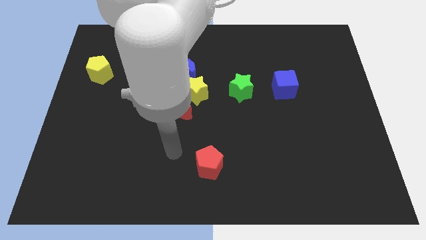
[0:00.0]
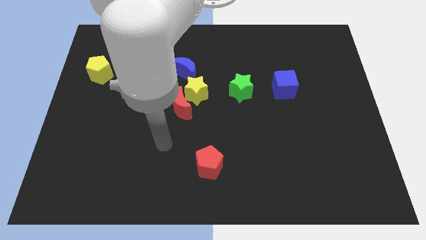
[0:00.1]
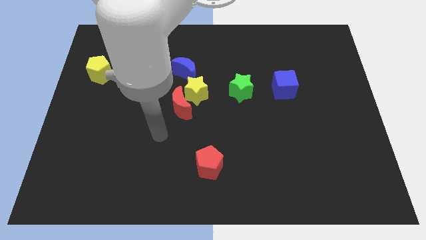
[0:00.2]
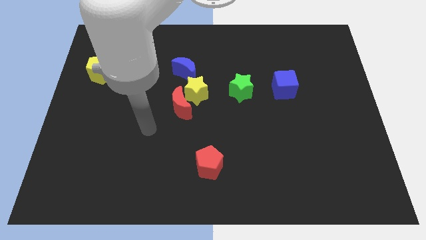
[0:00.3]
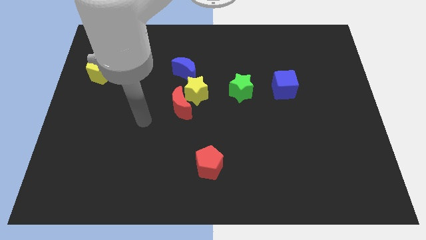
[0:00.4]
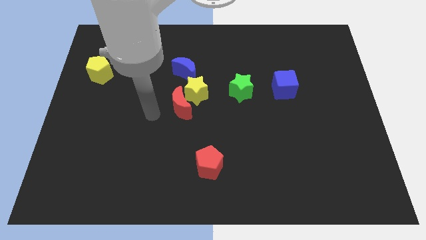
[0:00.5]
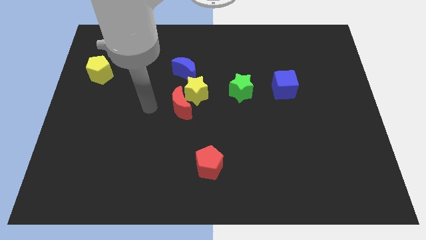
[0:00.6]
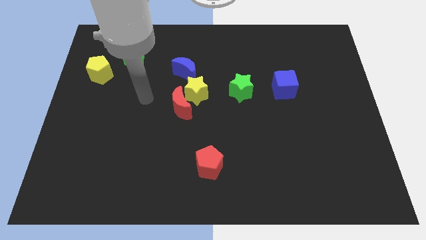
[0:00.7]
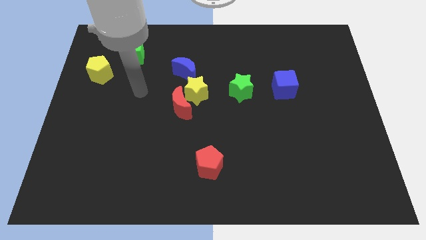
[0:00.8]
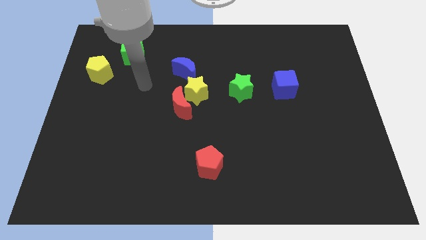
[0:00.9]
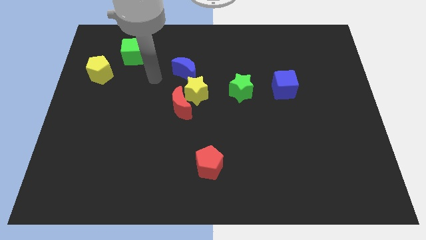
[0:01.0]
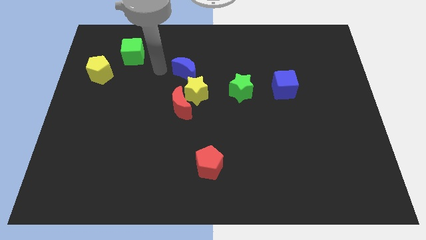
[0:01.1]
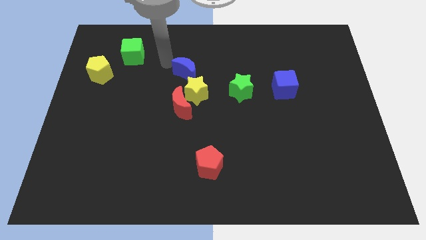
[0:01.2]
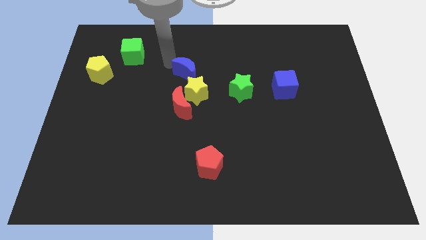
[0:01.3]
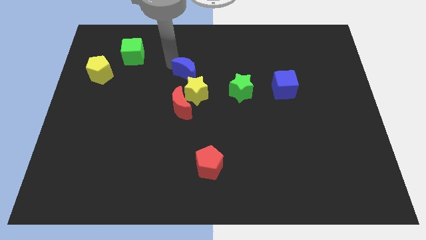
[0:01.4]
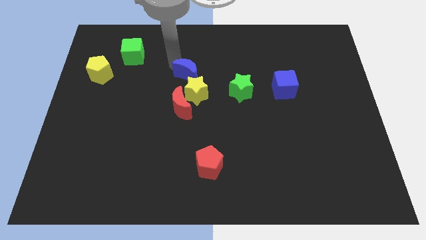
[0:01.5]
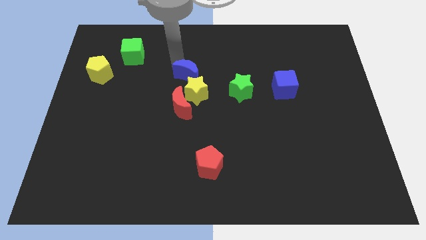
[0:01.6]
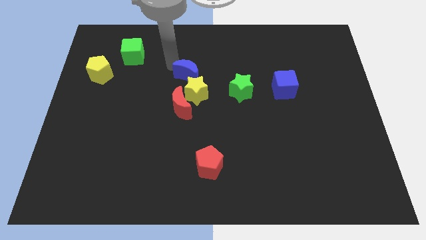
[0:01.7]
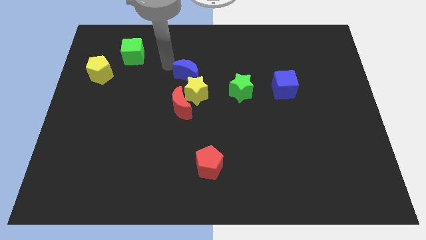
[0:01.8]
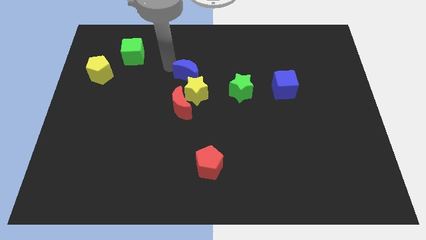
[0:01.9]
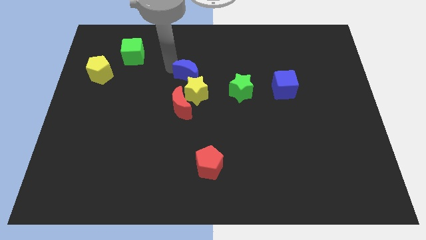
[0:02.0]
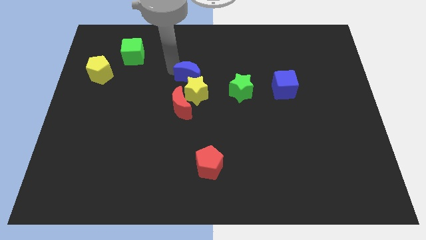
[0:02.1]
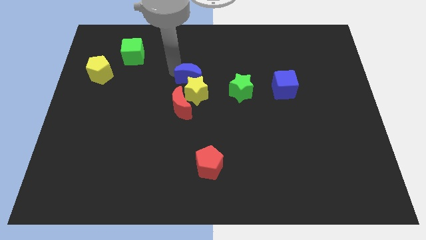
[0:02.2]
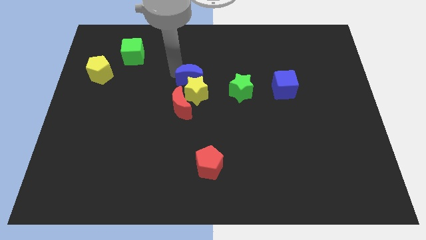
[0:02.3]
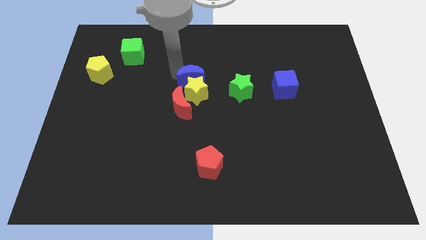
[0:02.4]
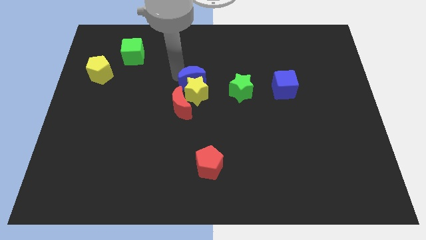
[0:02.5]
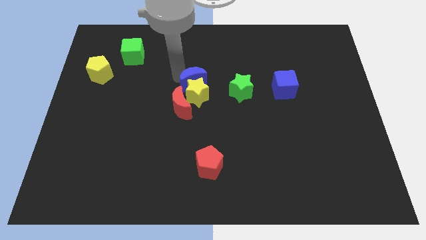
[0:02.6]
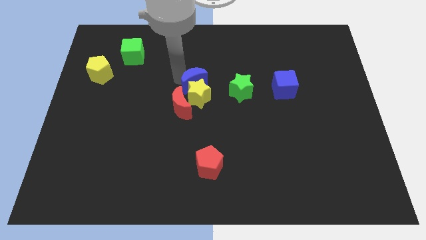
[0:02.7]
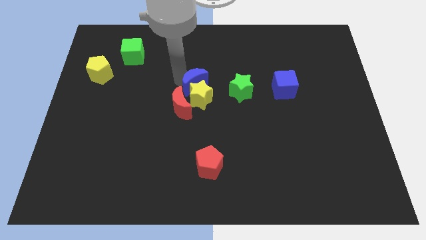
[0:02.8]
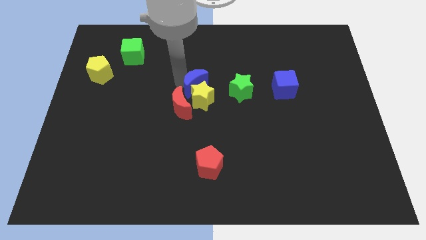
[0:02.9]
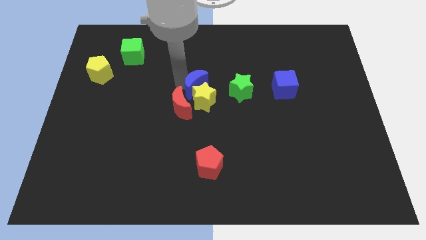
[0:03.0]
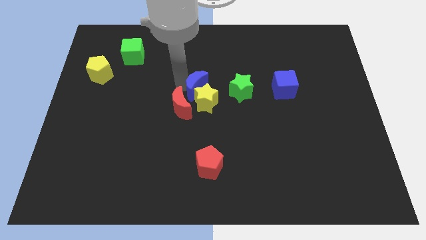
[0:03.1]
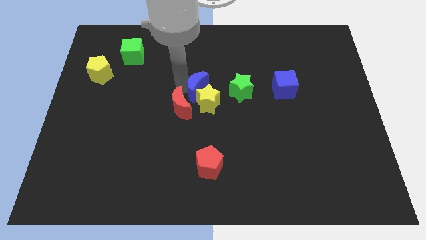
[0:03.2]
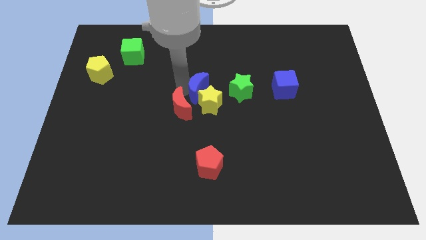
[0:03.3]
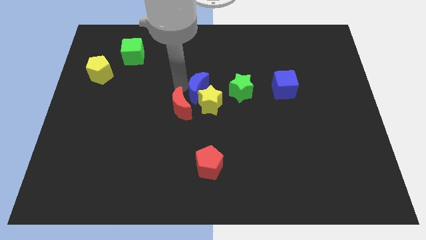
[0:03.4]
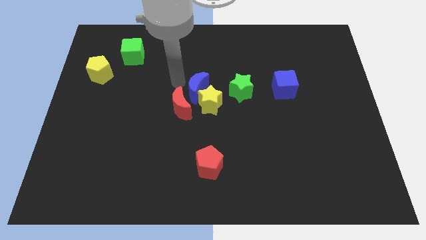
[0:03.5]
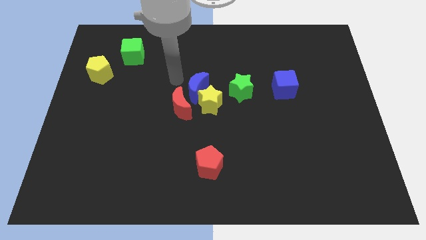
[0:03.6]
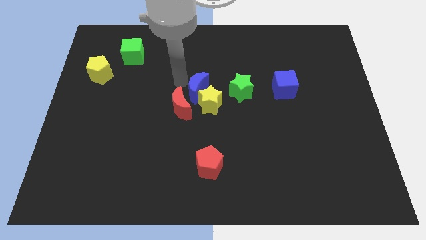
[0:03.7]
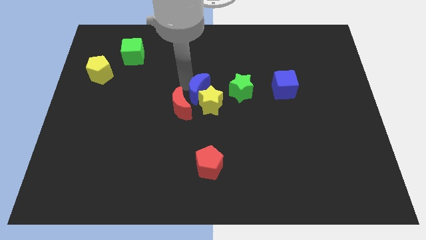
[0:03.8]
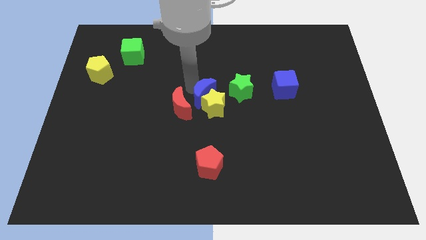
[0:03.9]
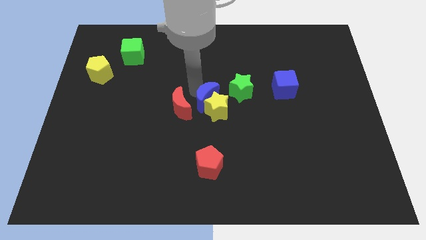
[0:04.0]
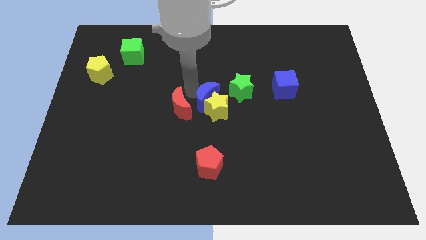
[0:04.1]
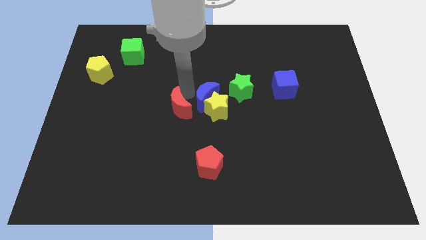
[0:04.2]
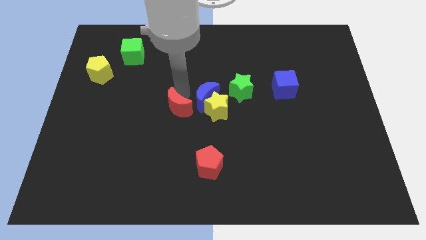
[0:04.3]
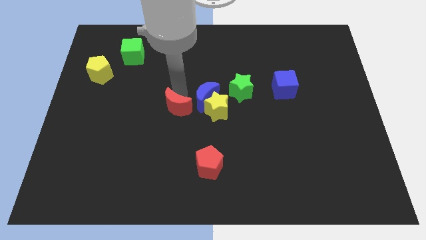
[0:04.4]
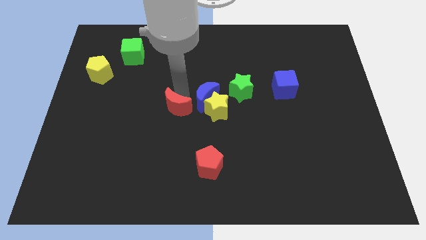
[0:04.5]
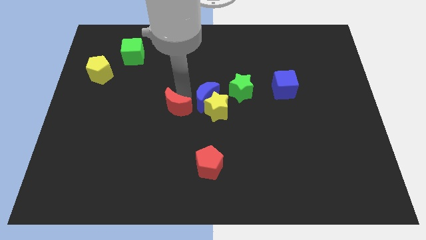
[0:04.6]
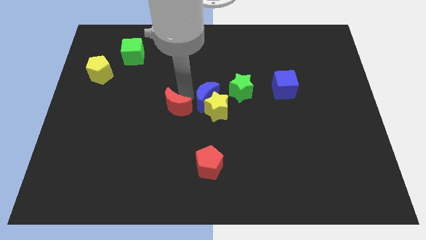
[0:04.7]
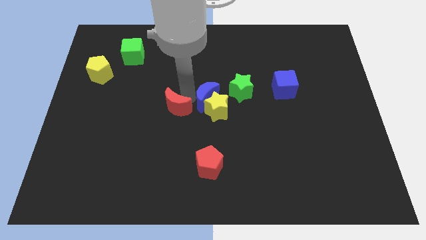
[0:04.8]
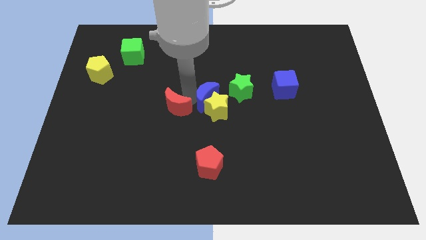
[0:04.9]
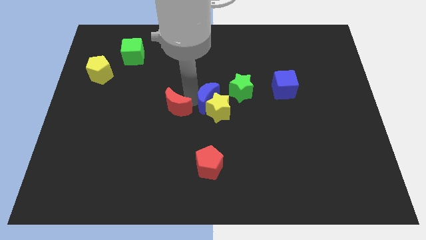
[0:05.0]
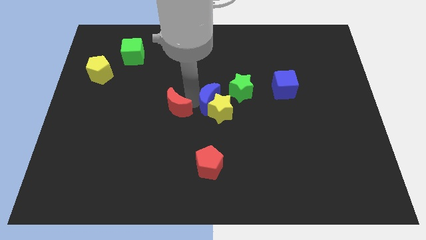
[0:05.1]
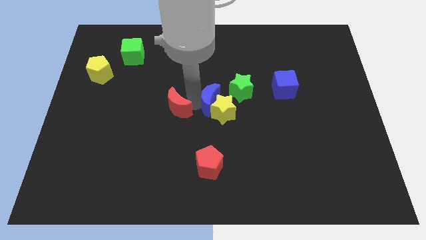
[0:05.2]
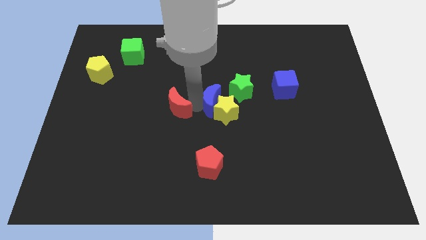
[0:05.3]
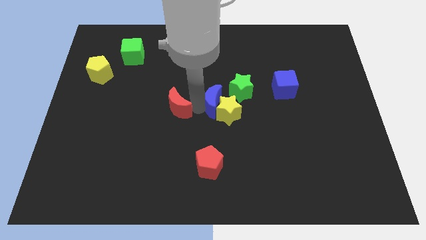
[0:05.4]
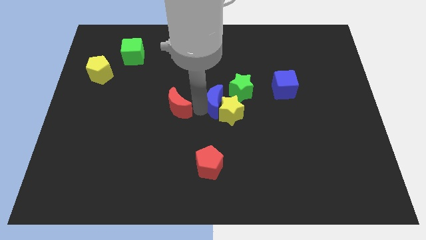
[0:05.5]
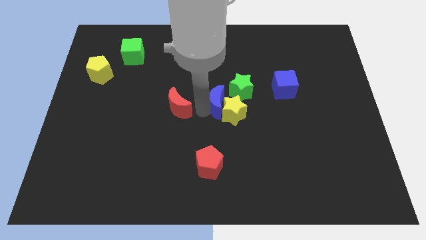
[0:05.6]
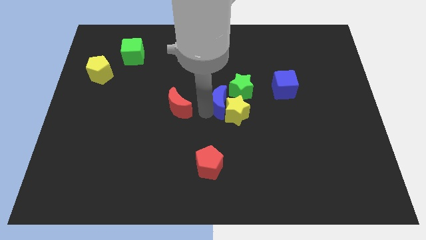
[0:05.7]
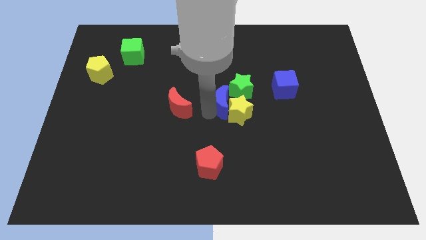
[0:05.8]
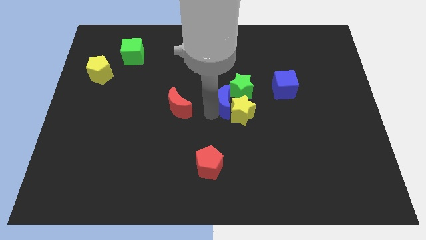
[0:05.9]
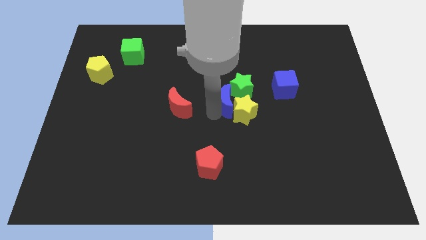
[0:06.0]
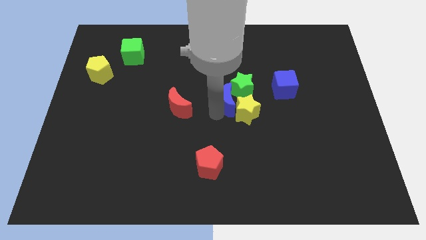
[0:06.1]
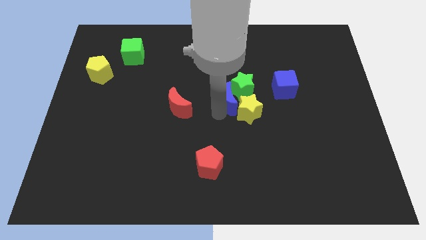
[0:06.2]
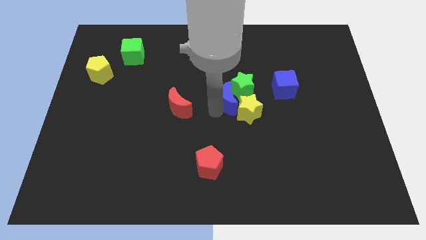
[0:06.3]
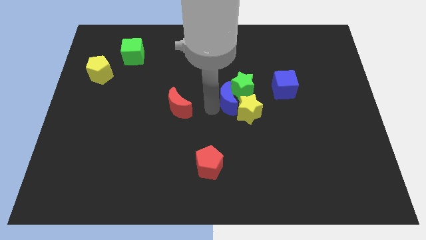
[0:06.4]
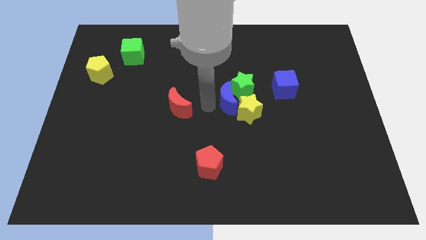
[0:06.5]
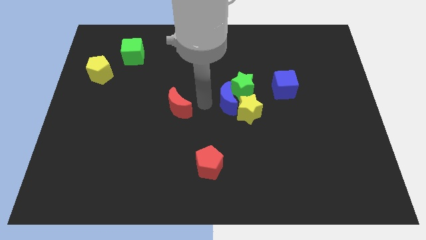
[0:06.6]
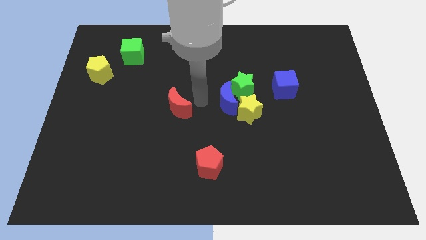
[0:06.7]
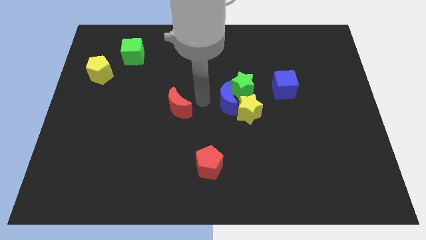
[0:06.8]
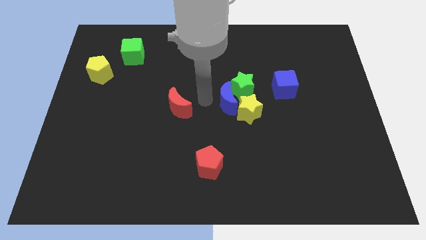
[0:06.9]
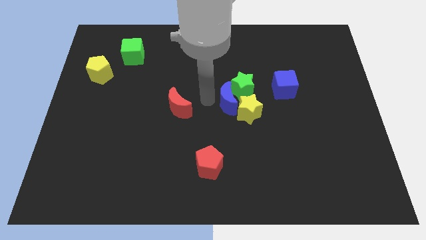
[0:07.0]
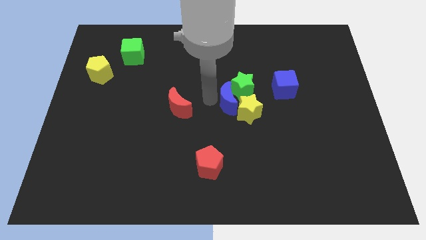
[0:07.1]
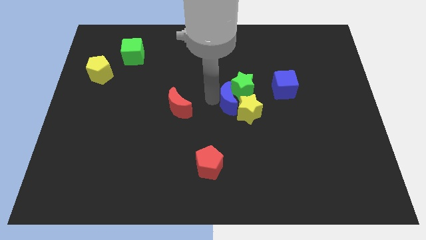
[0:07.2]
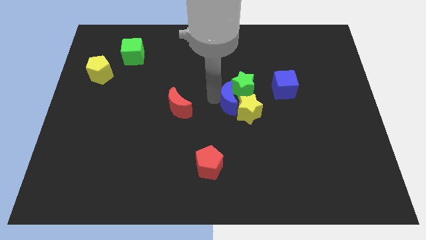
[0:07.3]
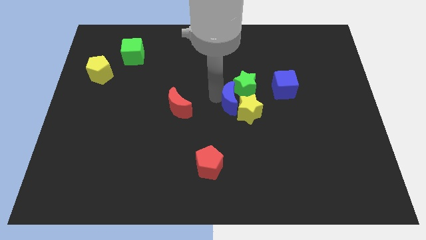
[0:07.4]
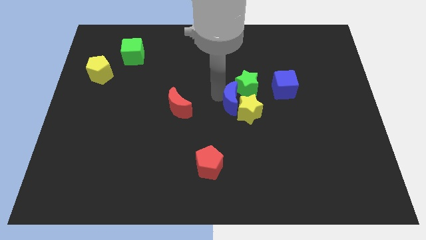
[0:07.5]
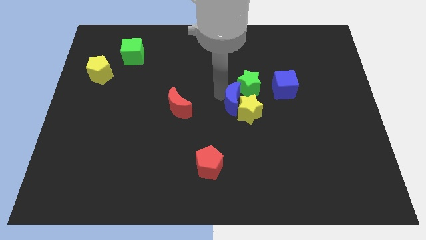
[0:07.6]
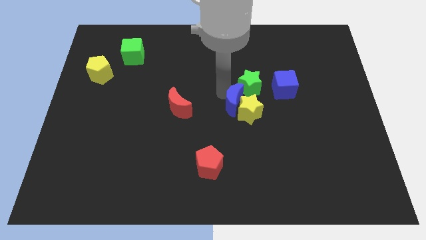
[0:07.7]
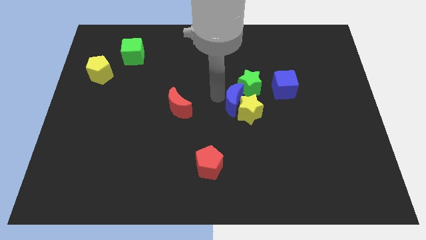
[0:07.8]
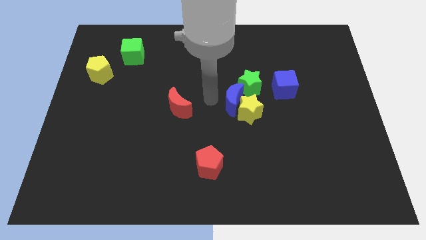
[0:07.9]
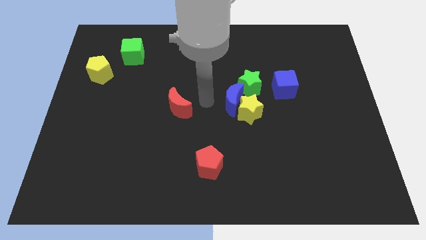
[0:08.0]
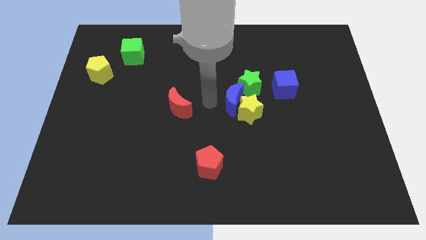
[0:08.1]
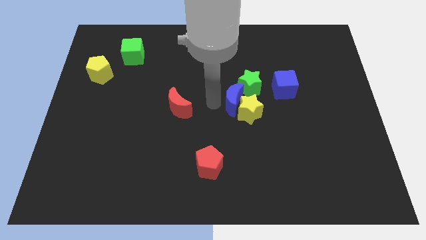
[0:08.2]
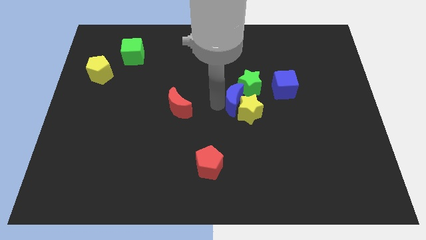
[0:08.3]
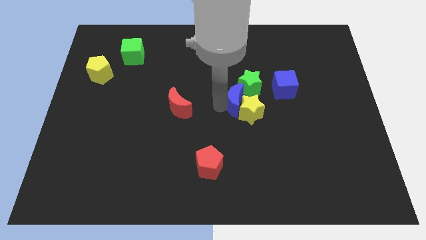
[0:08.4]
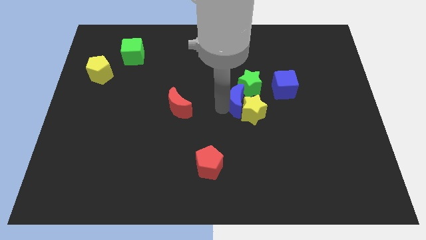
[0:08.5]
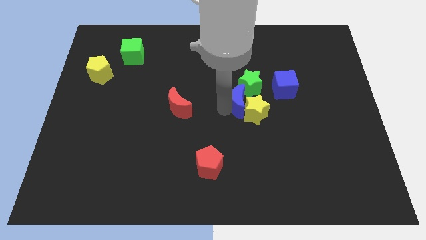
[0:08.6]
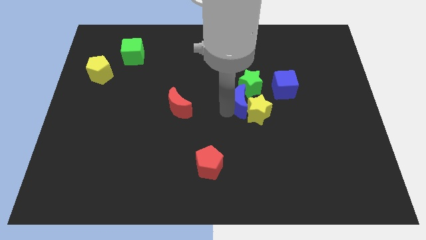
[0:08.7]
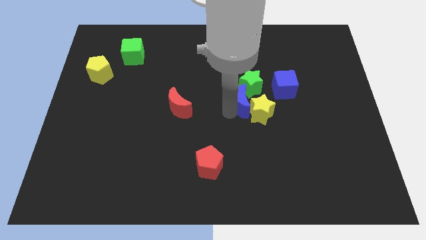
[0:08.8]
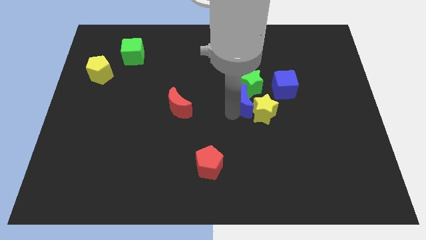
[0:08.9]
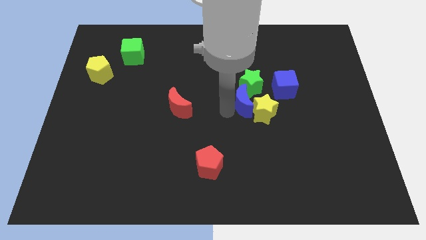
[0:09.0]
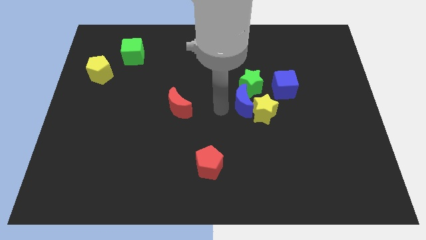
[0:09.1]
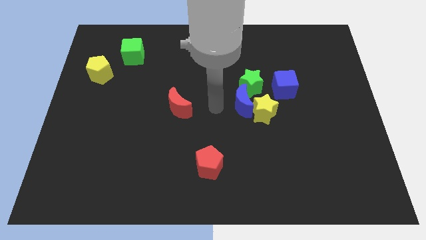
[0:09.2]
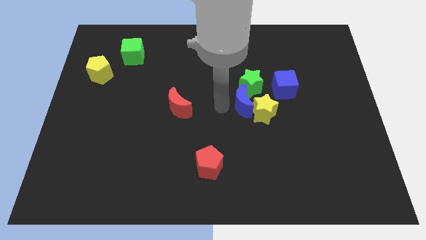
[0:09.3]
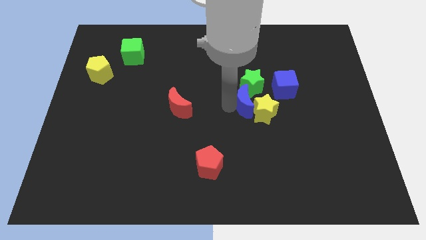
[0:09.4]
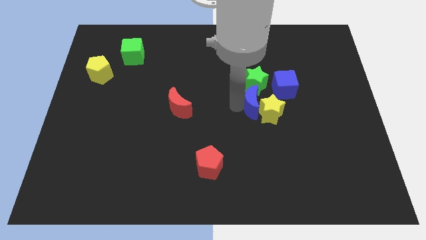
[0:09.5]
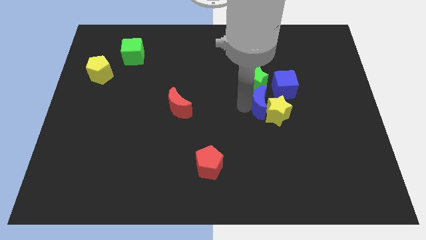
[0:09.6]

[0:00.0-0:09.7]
push the blue moon to the bottom right of the green star
